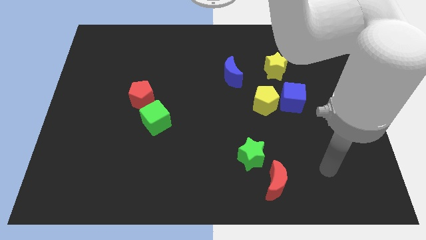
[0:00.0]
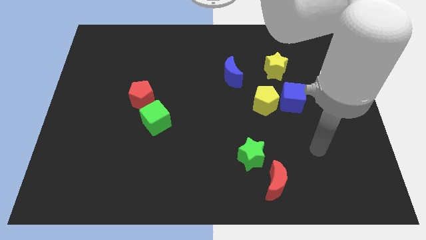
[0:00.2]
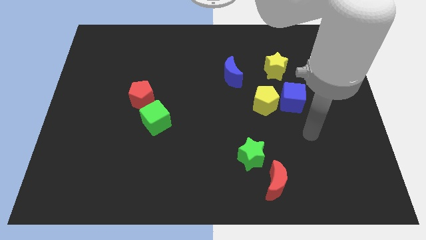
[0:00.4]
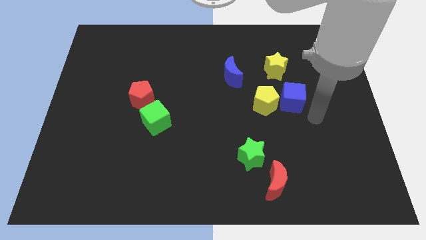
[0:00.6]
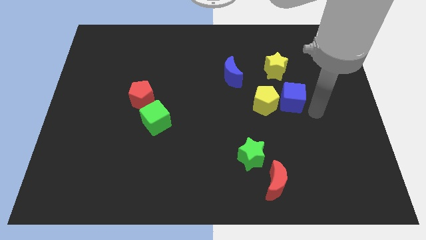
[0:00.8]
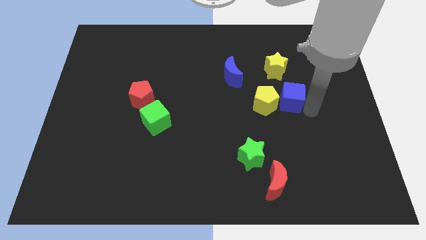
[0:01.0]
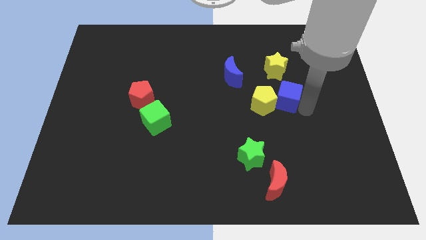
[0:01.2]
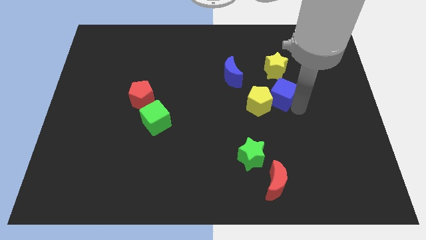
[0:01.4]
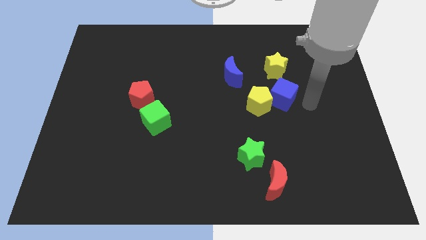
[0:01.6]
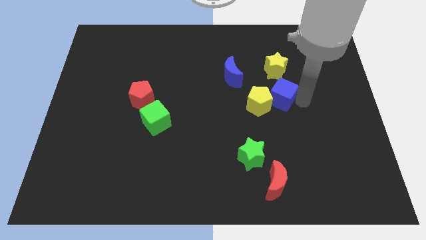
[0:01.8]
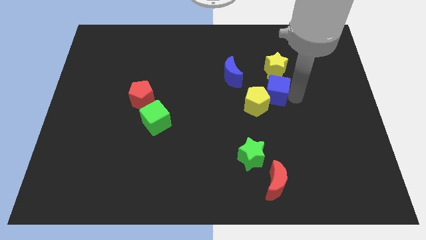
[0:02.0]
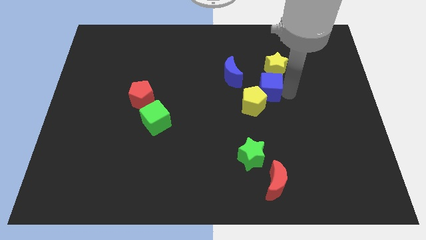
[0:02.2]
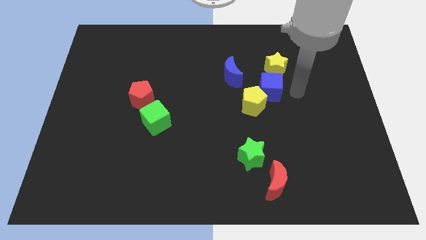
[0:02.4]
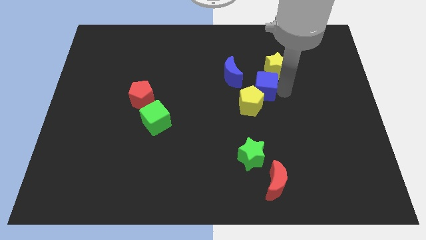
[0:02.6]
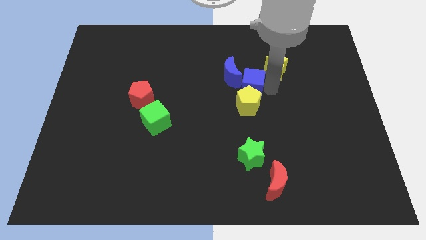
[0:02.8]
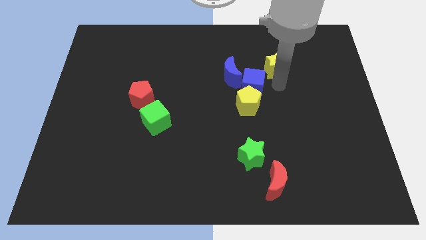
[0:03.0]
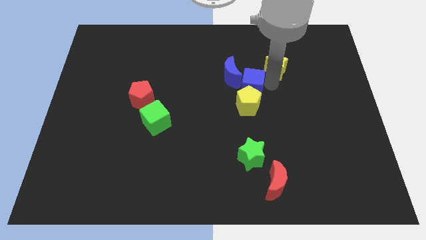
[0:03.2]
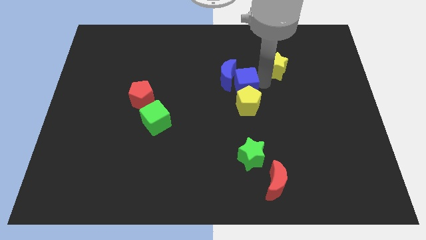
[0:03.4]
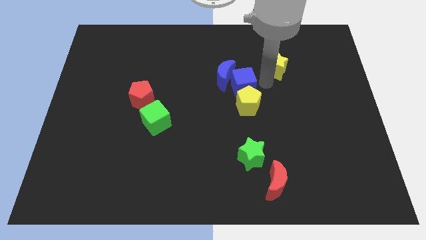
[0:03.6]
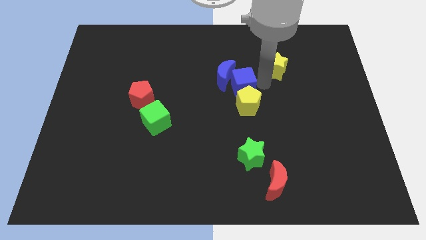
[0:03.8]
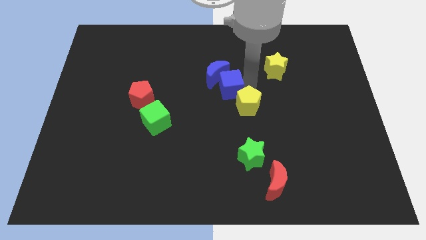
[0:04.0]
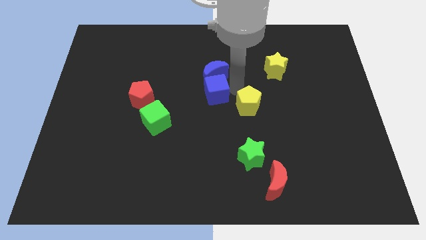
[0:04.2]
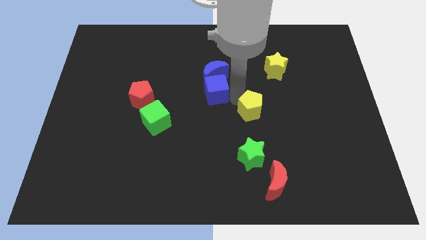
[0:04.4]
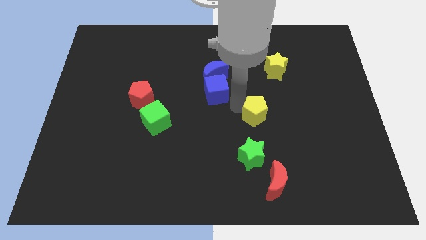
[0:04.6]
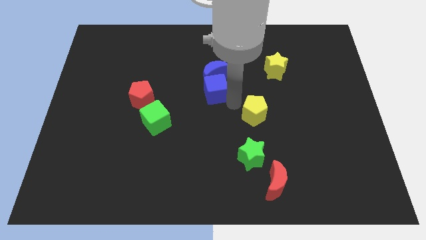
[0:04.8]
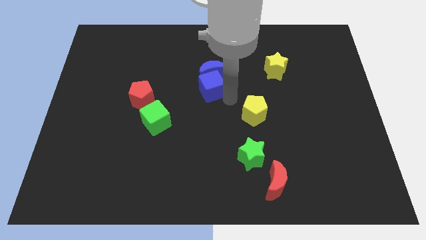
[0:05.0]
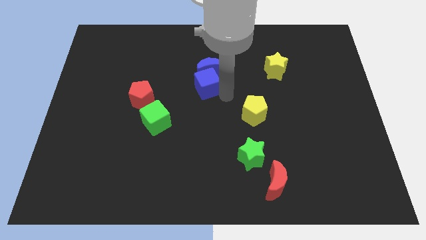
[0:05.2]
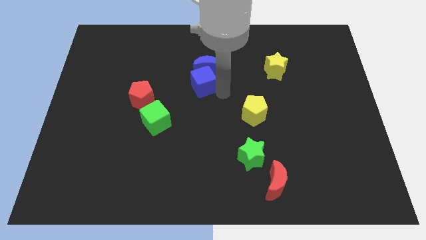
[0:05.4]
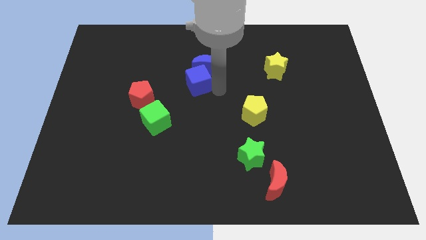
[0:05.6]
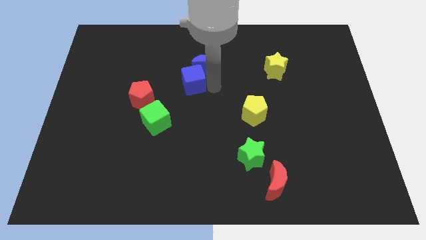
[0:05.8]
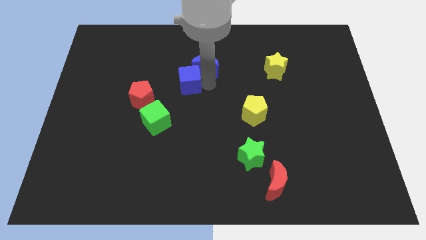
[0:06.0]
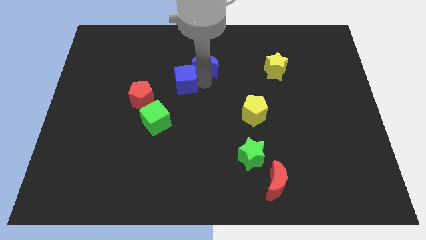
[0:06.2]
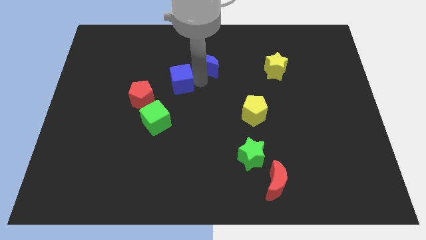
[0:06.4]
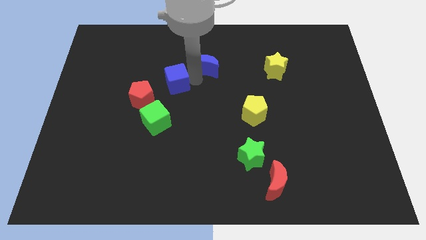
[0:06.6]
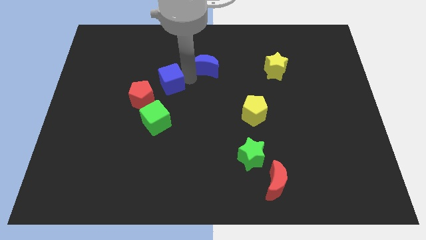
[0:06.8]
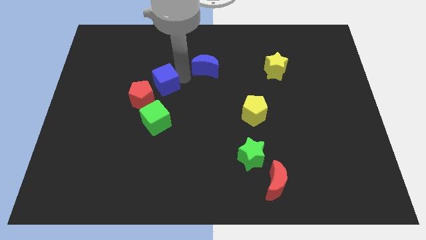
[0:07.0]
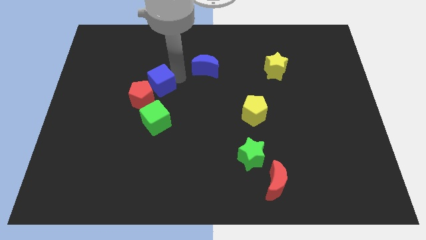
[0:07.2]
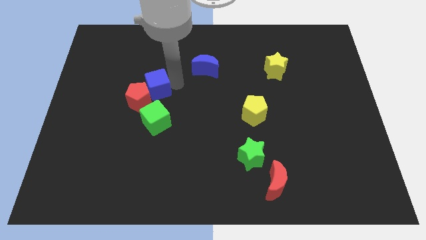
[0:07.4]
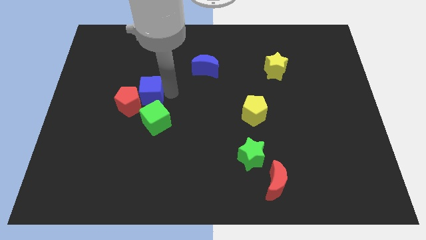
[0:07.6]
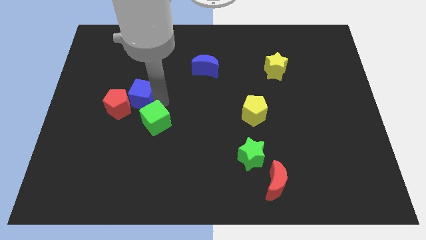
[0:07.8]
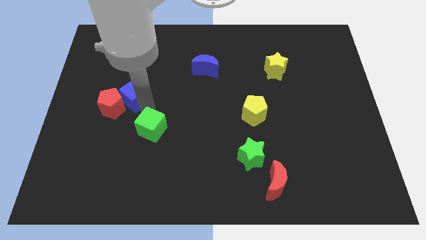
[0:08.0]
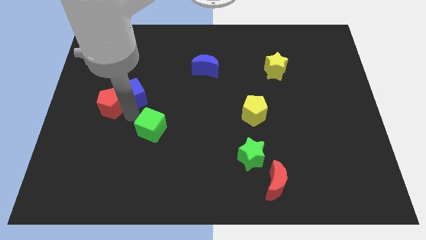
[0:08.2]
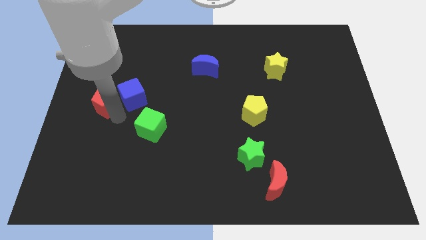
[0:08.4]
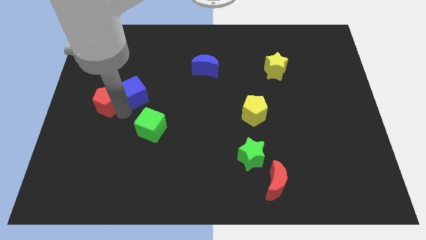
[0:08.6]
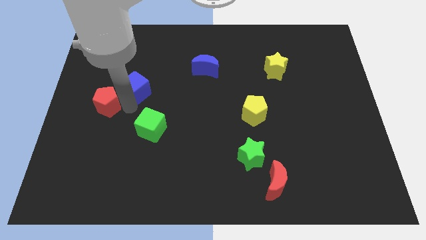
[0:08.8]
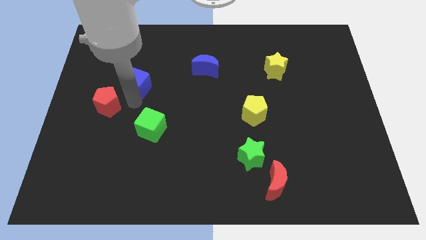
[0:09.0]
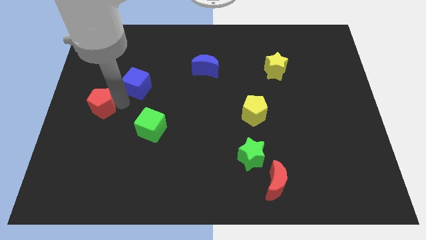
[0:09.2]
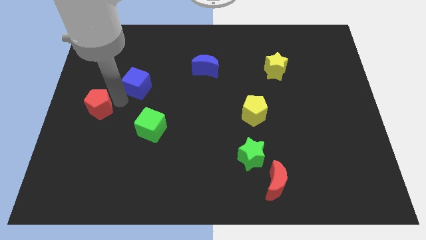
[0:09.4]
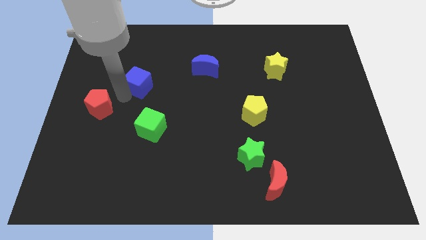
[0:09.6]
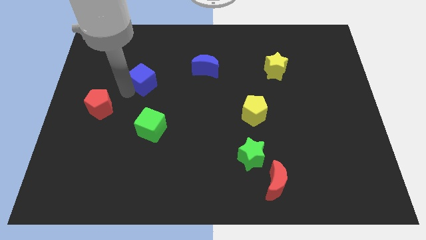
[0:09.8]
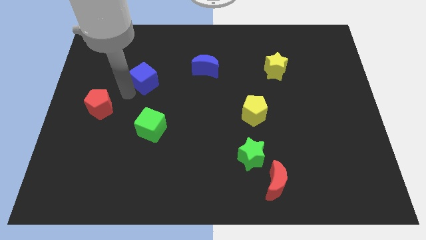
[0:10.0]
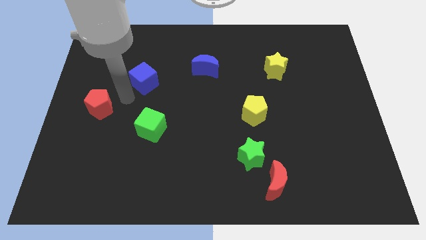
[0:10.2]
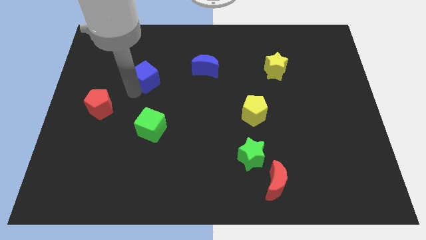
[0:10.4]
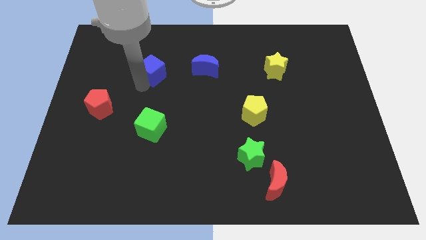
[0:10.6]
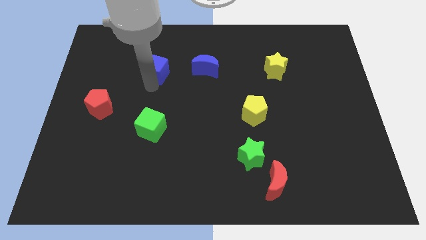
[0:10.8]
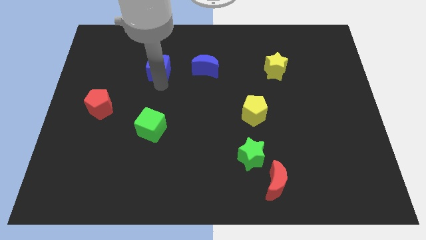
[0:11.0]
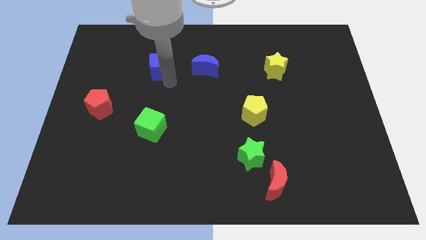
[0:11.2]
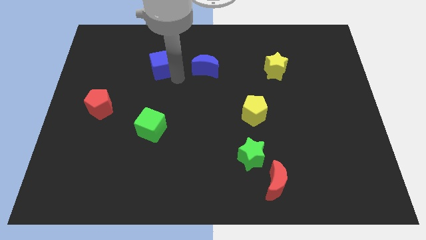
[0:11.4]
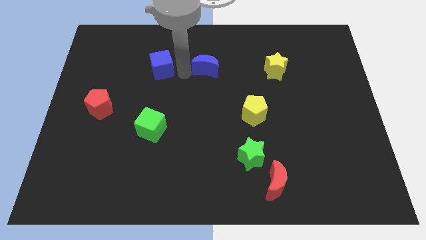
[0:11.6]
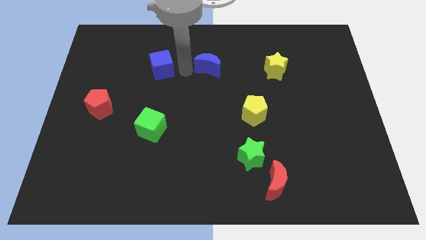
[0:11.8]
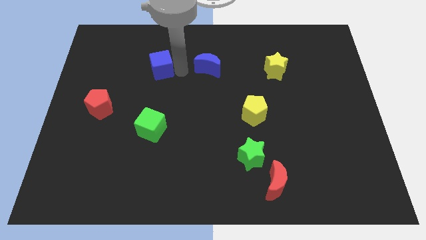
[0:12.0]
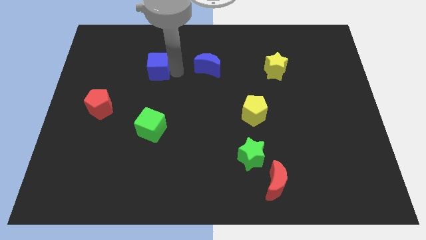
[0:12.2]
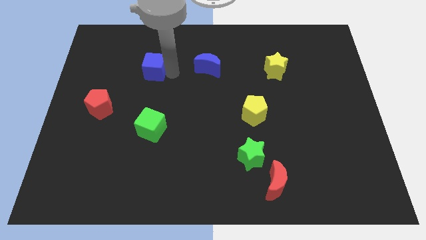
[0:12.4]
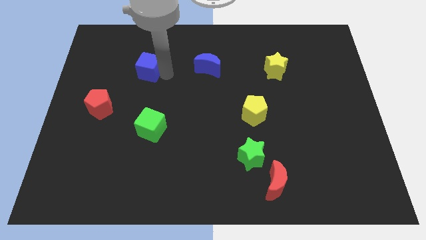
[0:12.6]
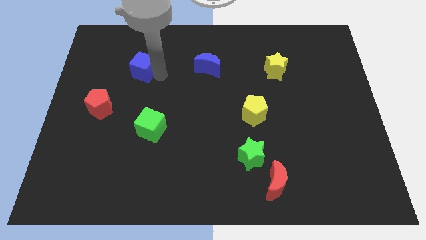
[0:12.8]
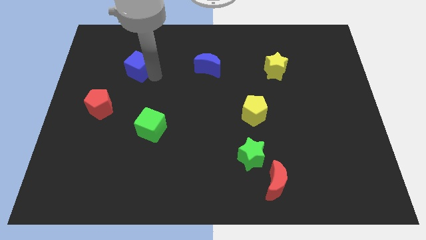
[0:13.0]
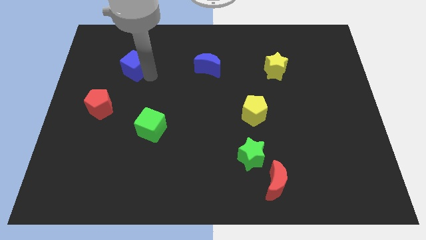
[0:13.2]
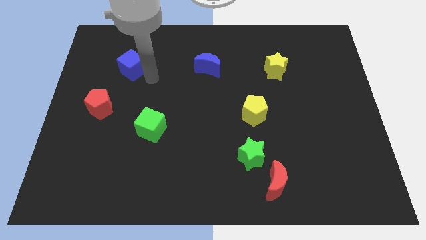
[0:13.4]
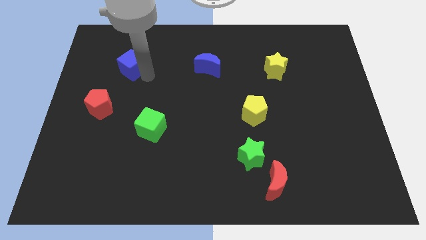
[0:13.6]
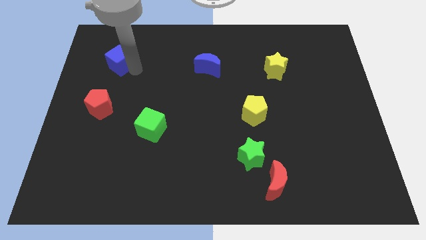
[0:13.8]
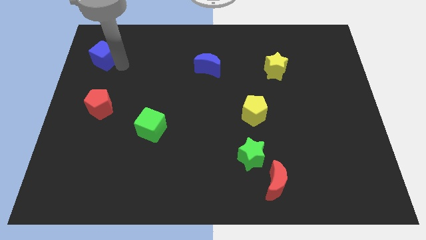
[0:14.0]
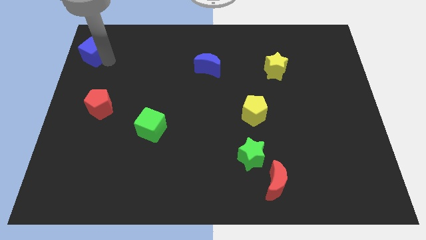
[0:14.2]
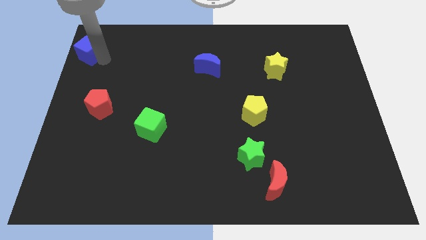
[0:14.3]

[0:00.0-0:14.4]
put the blue cube to the top left of the board
